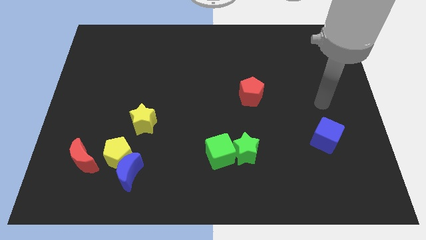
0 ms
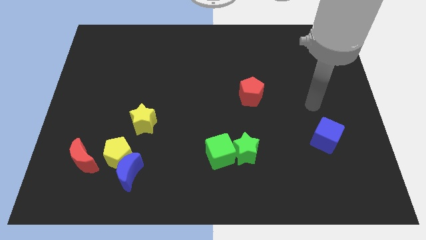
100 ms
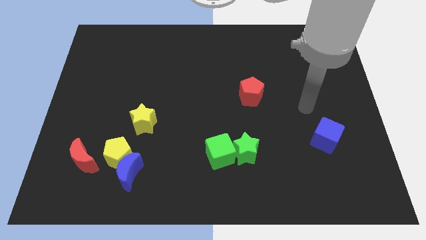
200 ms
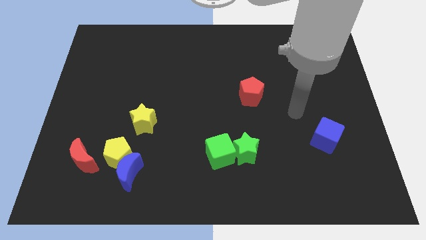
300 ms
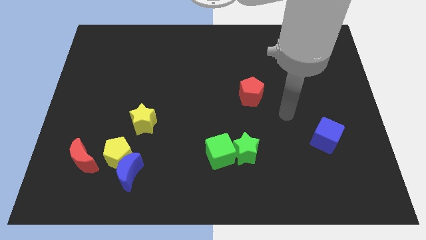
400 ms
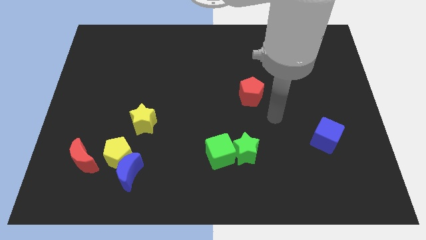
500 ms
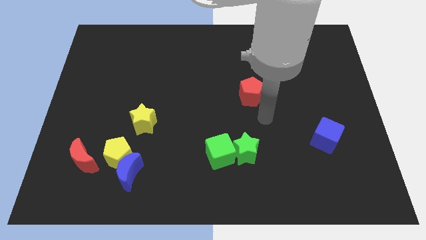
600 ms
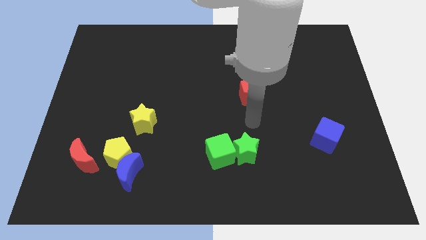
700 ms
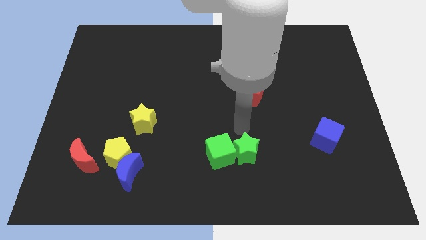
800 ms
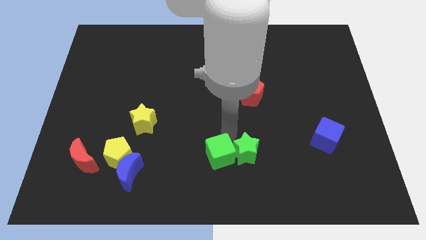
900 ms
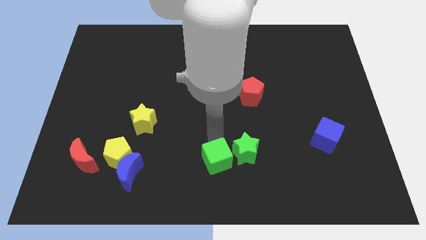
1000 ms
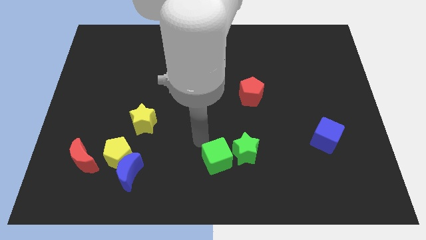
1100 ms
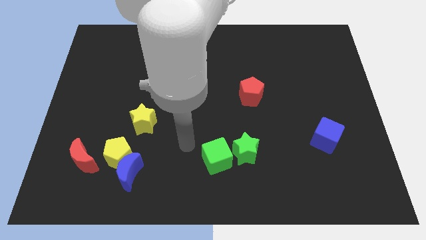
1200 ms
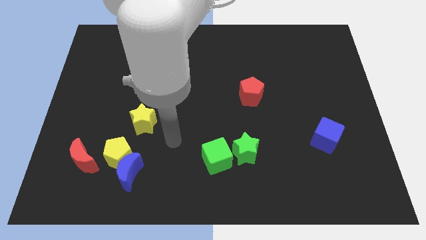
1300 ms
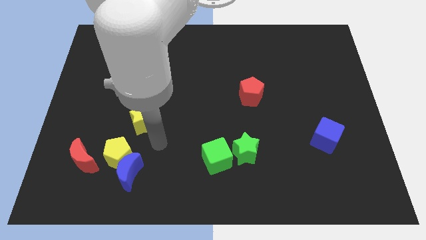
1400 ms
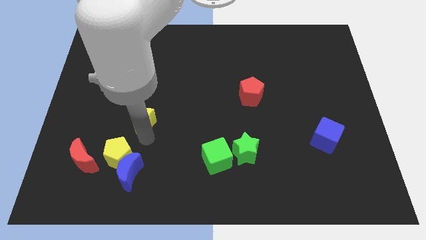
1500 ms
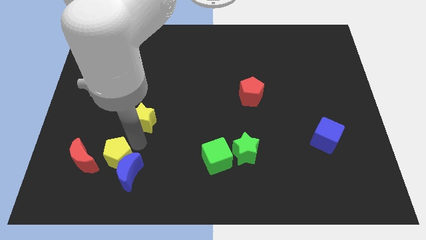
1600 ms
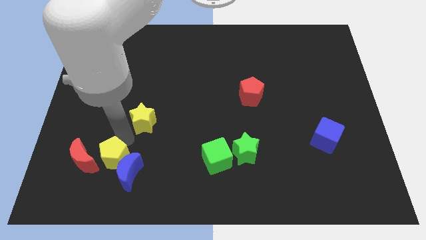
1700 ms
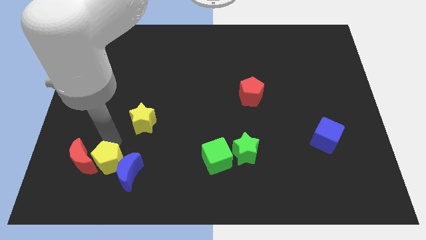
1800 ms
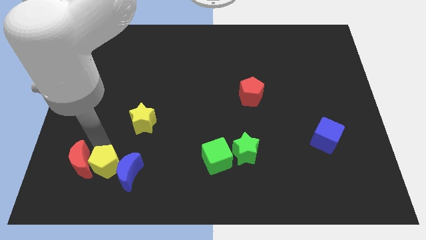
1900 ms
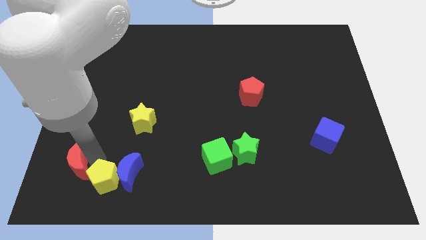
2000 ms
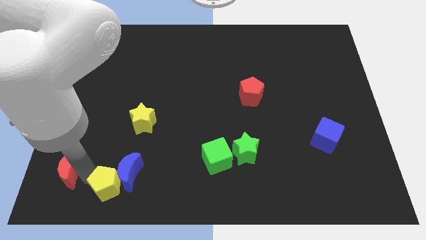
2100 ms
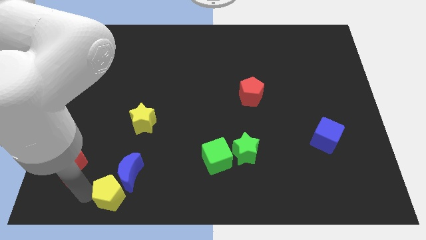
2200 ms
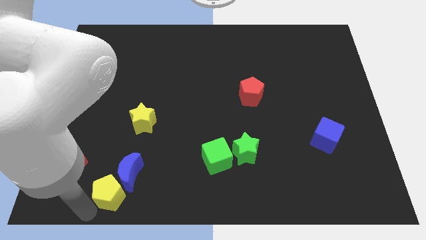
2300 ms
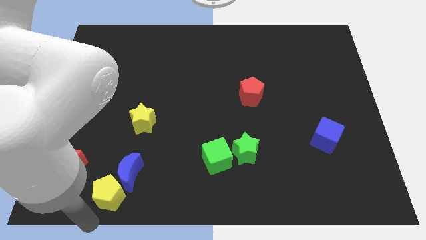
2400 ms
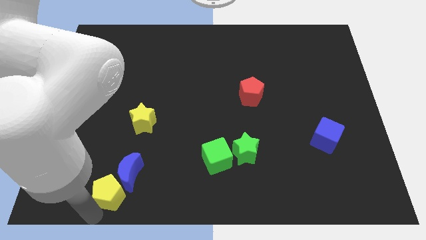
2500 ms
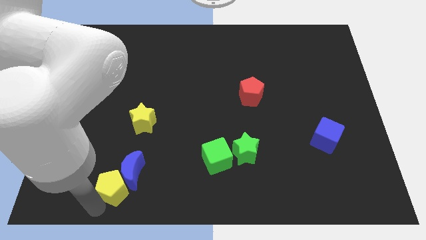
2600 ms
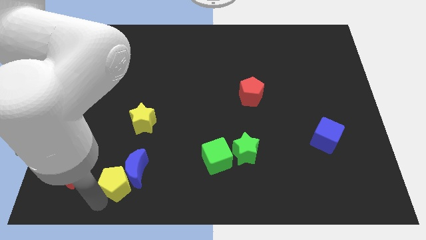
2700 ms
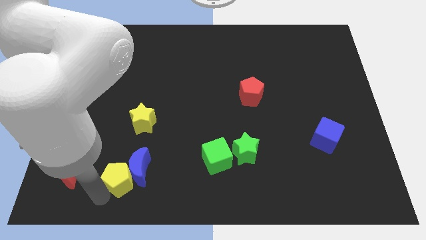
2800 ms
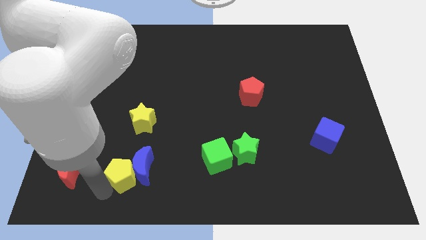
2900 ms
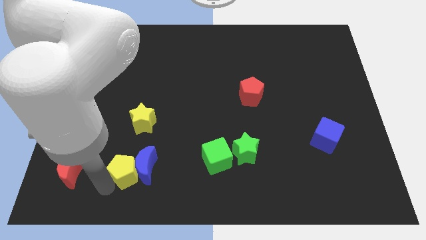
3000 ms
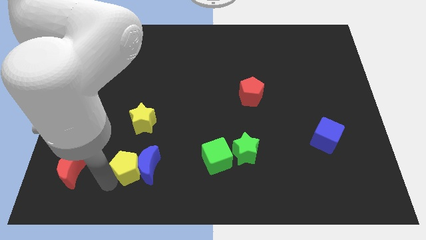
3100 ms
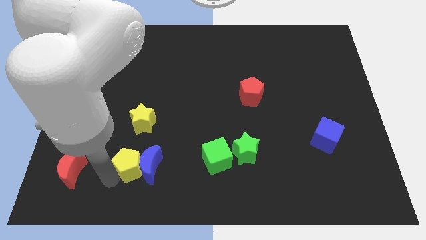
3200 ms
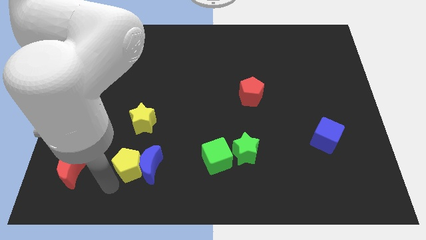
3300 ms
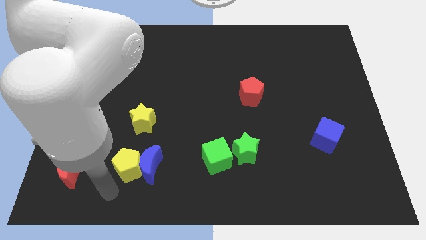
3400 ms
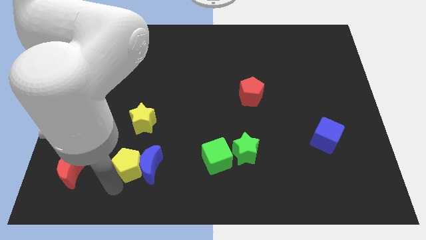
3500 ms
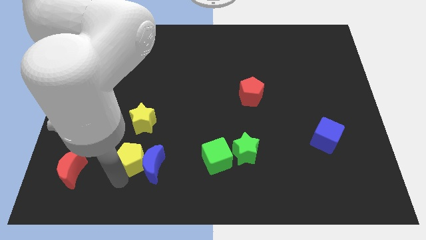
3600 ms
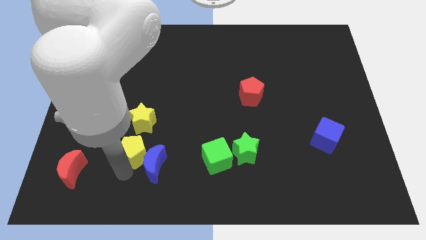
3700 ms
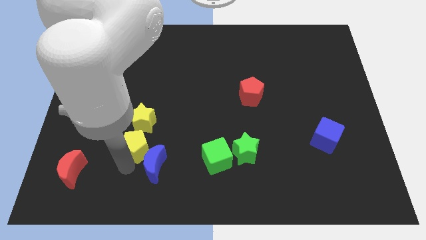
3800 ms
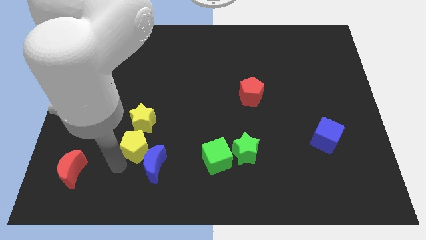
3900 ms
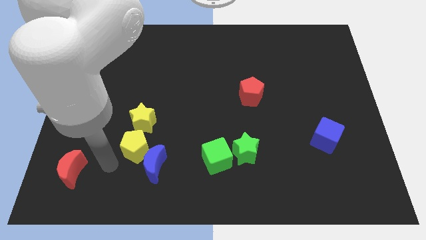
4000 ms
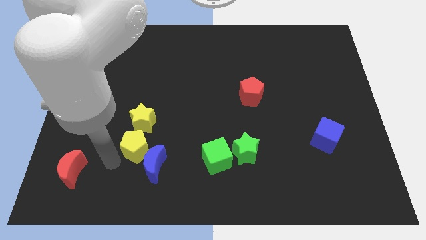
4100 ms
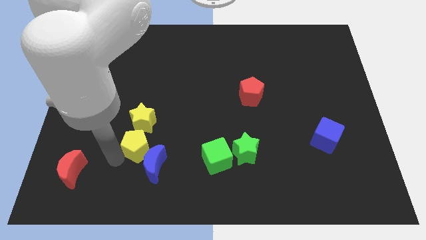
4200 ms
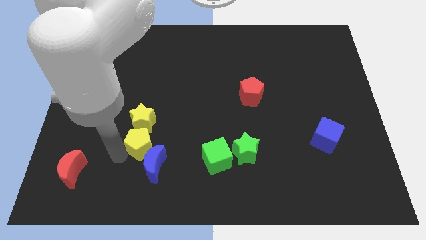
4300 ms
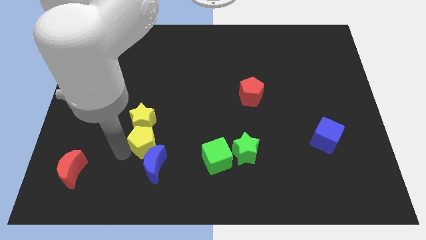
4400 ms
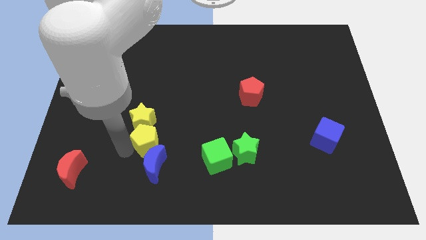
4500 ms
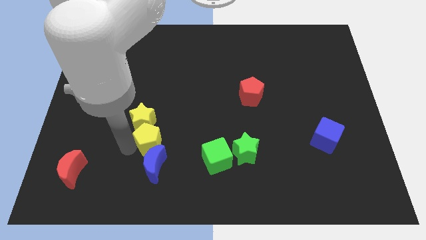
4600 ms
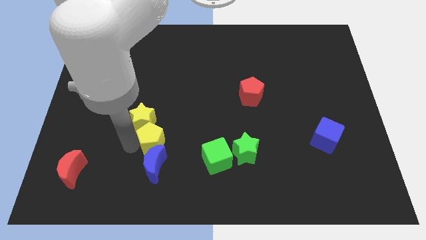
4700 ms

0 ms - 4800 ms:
slide the yellow pentagon a little up and to the right diagonally

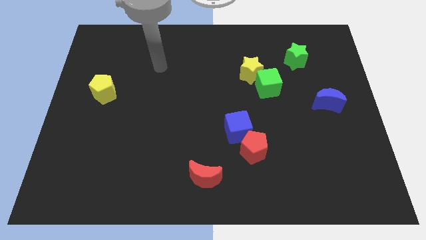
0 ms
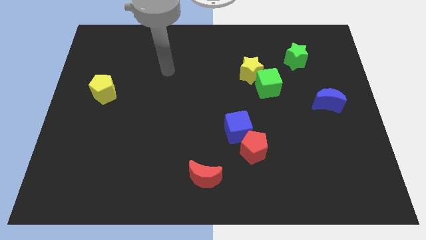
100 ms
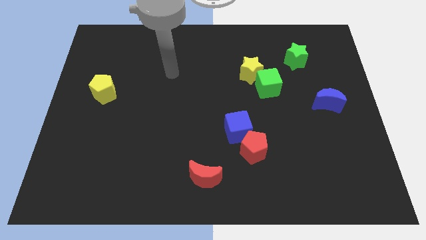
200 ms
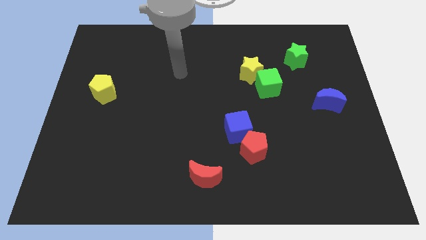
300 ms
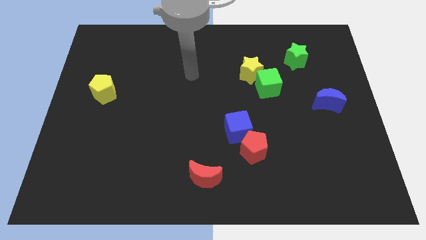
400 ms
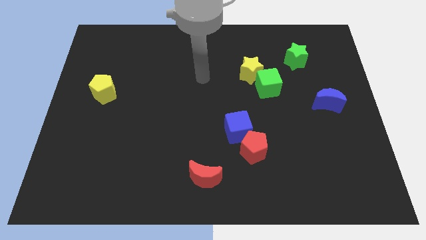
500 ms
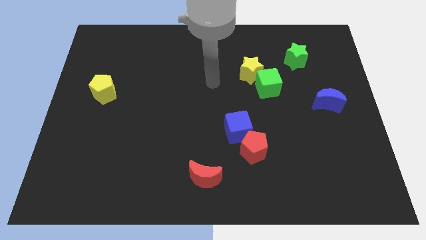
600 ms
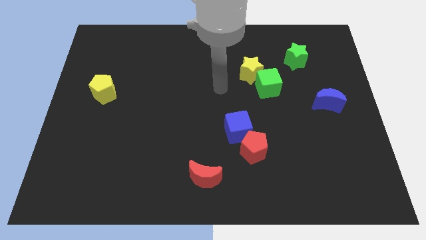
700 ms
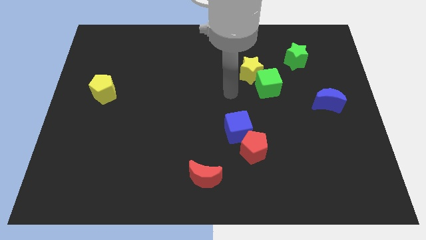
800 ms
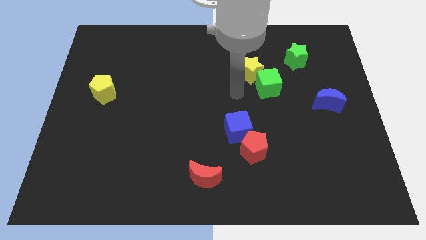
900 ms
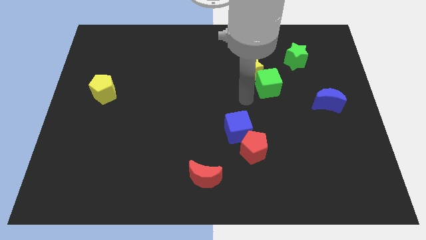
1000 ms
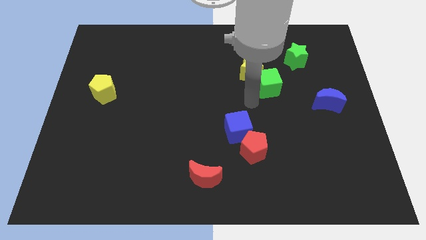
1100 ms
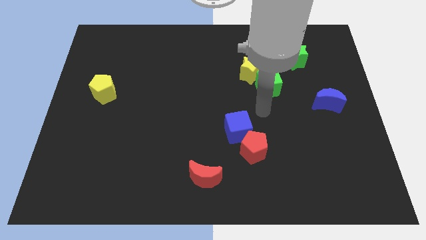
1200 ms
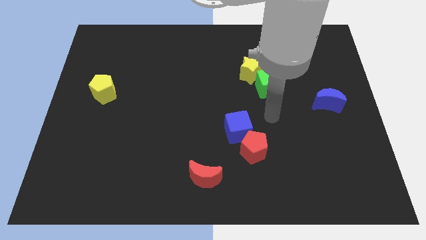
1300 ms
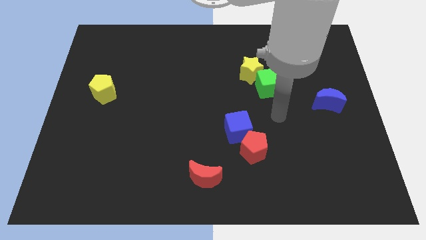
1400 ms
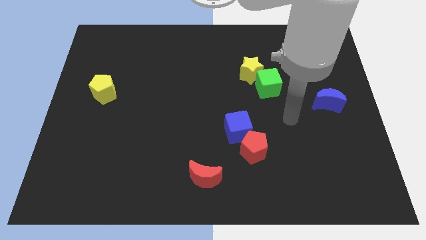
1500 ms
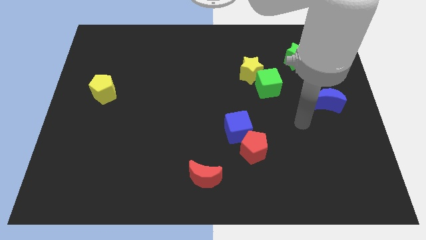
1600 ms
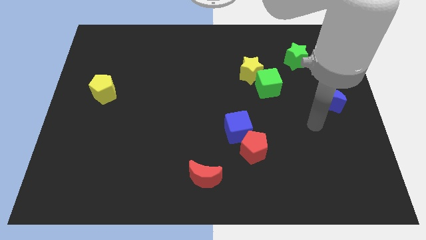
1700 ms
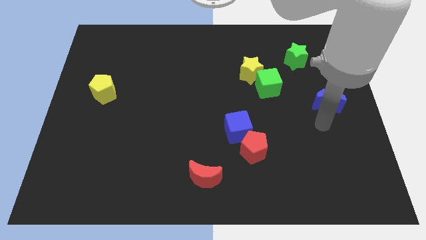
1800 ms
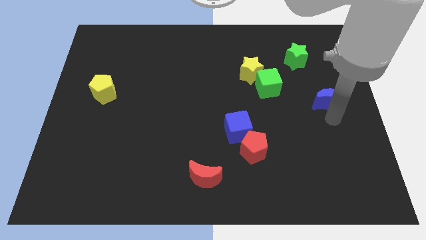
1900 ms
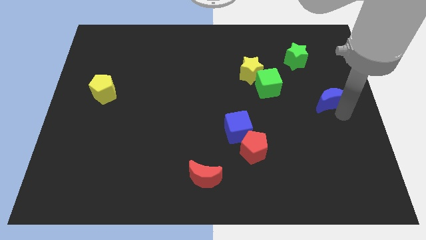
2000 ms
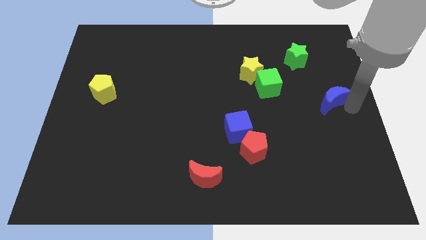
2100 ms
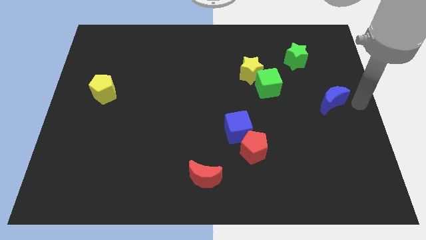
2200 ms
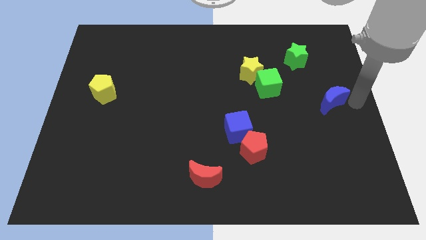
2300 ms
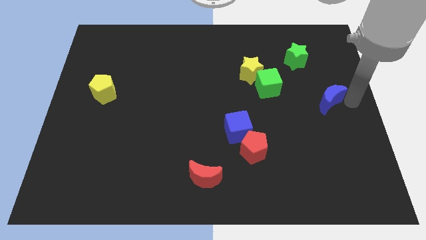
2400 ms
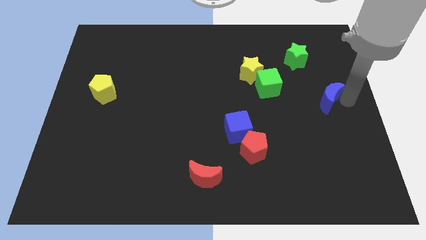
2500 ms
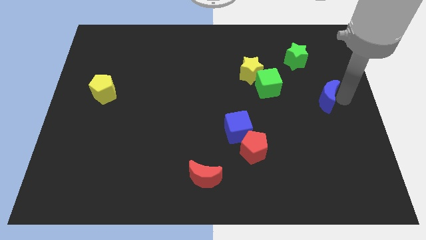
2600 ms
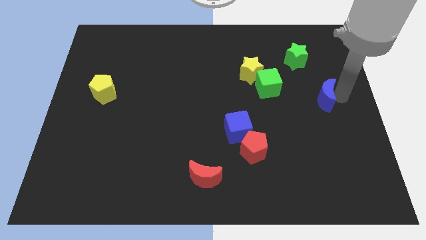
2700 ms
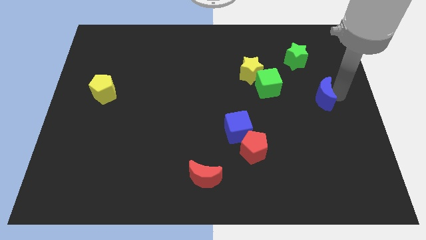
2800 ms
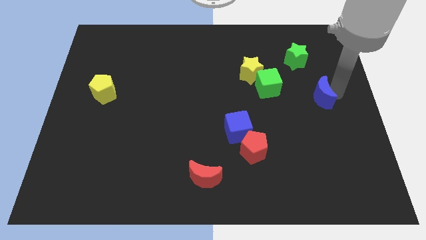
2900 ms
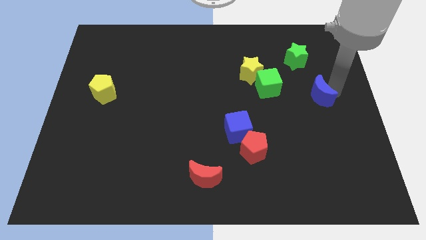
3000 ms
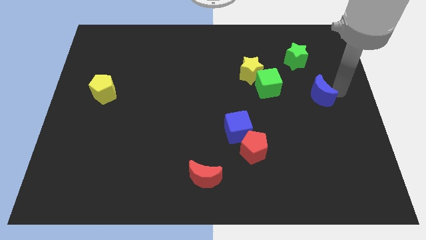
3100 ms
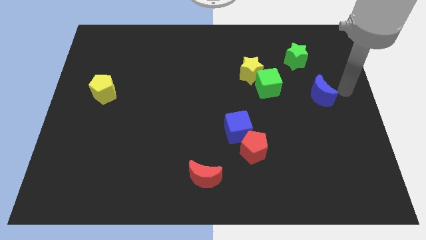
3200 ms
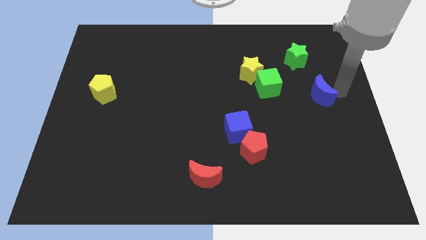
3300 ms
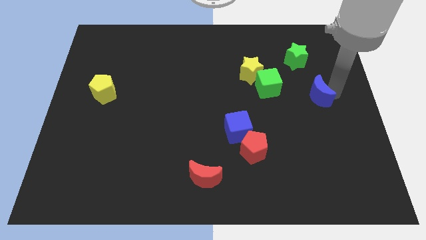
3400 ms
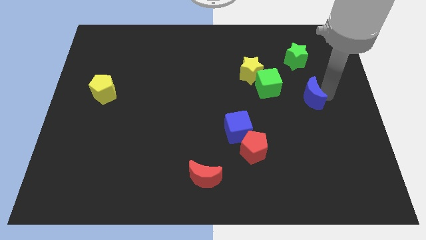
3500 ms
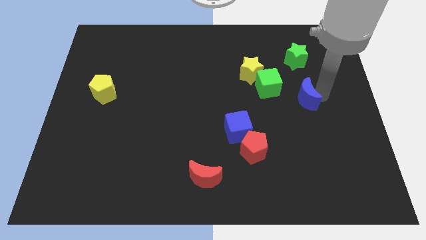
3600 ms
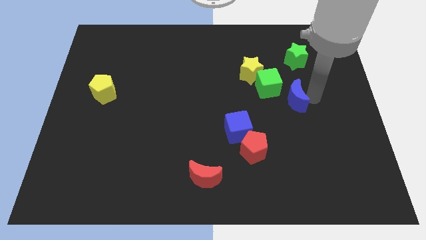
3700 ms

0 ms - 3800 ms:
slide the blue moon to the left slightly
